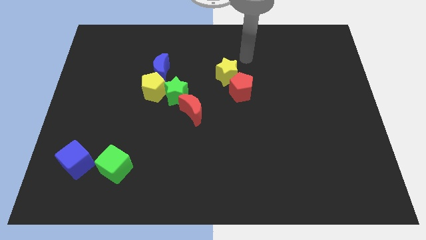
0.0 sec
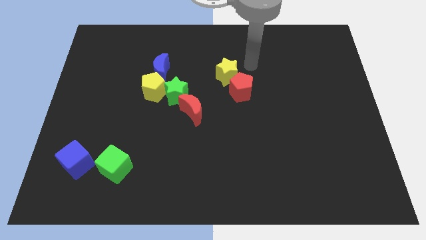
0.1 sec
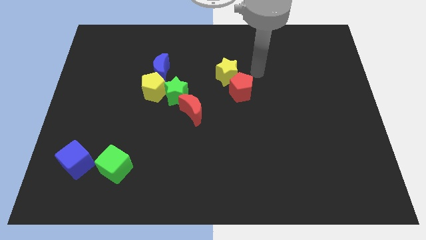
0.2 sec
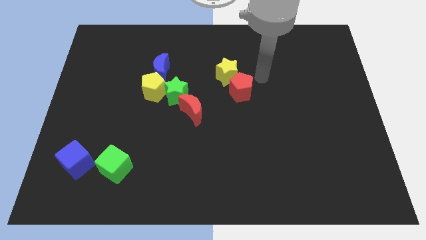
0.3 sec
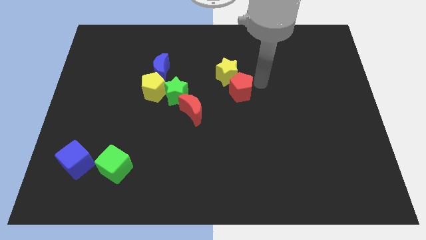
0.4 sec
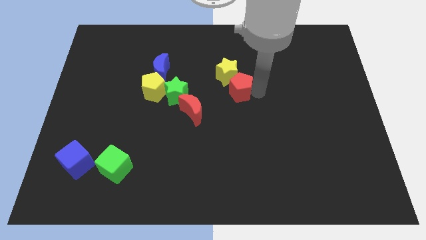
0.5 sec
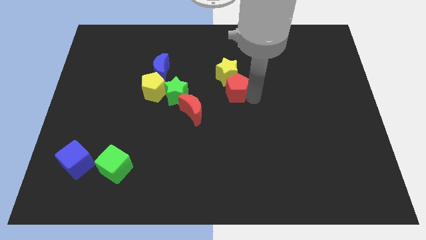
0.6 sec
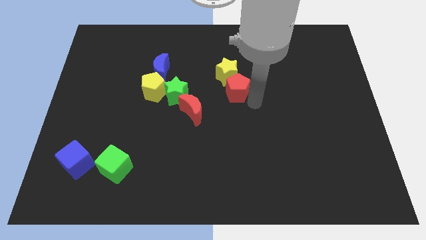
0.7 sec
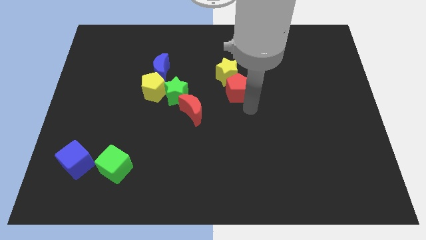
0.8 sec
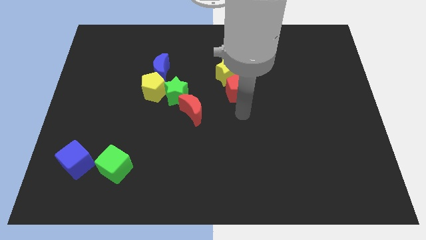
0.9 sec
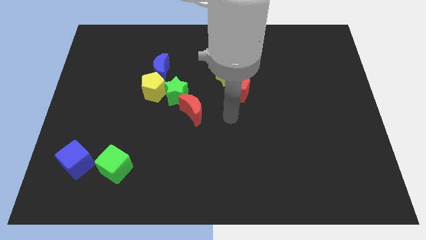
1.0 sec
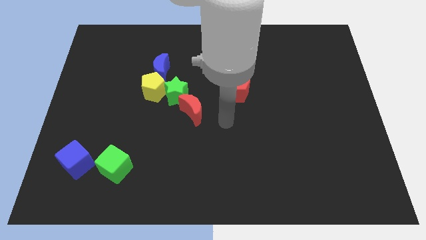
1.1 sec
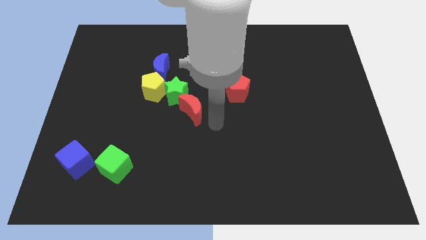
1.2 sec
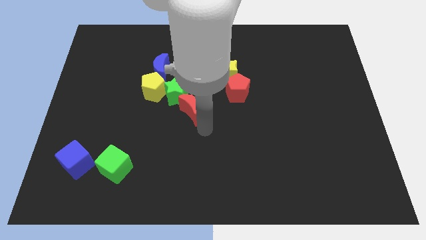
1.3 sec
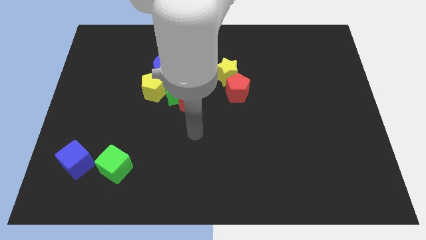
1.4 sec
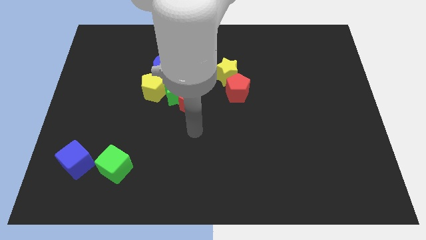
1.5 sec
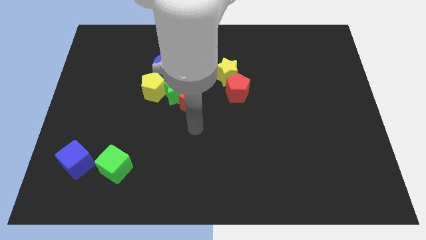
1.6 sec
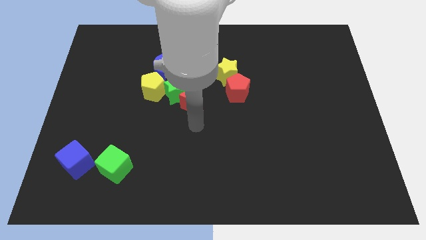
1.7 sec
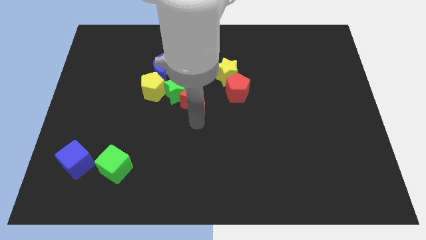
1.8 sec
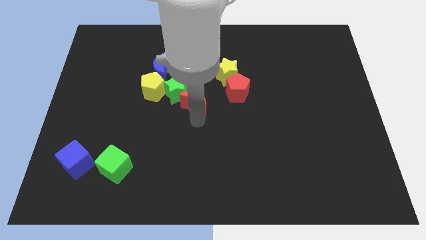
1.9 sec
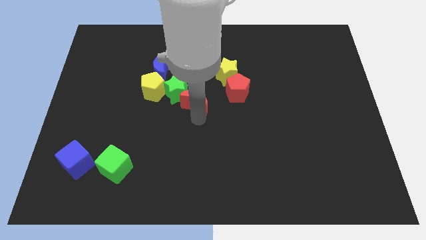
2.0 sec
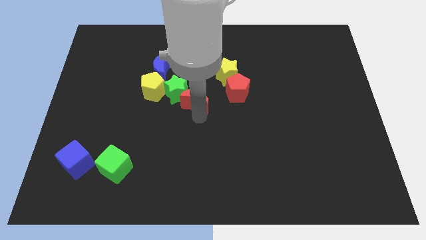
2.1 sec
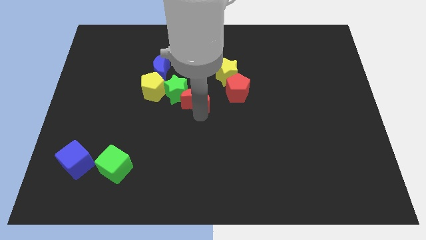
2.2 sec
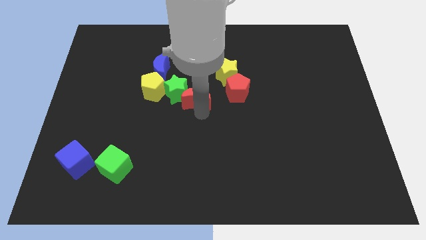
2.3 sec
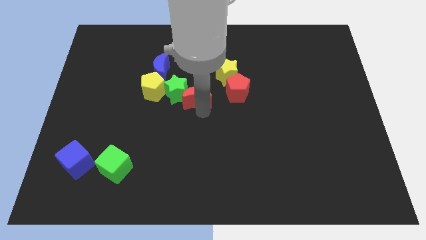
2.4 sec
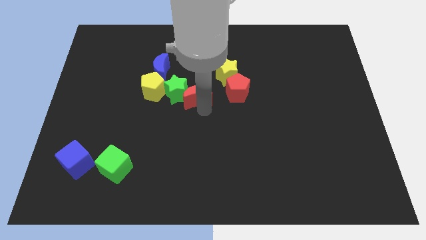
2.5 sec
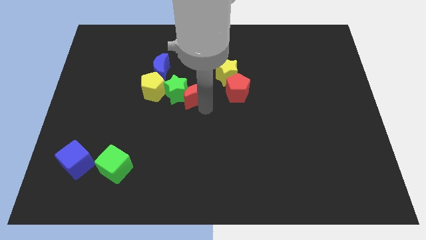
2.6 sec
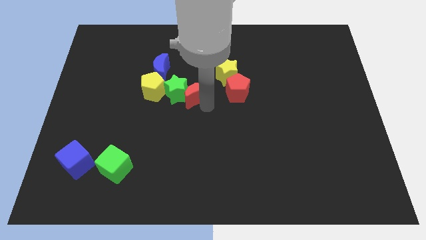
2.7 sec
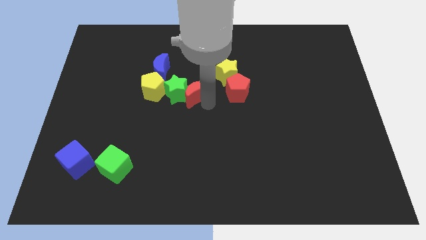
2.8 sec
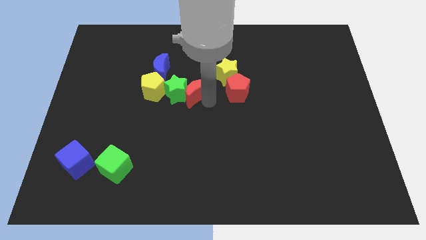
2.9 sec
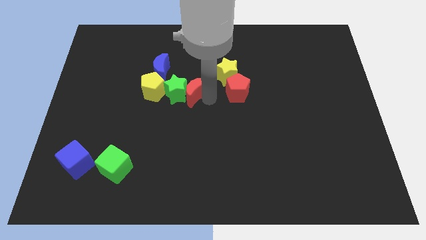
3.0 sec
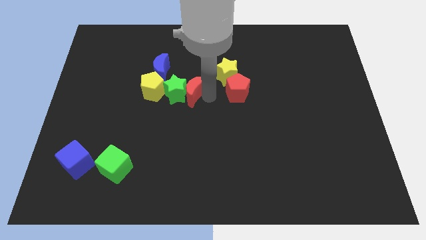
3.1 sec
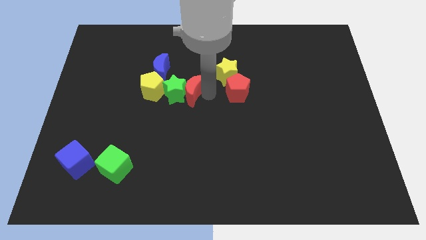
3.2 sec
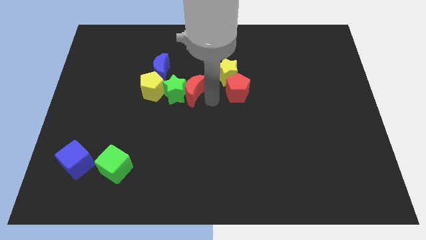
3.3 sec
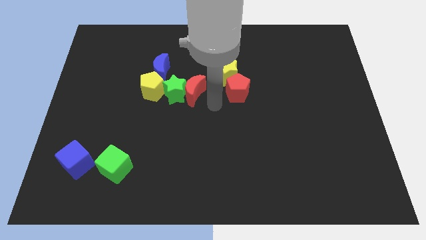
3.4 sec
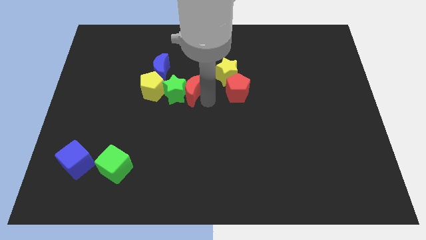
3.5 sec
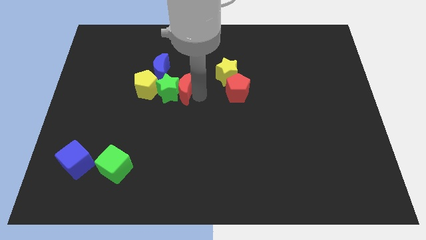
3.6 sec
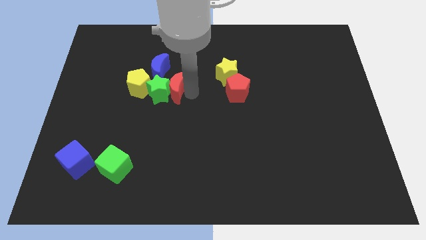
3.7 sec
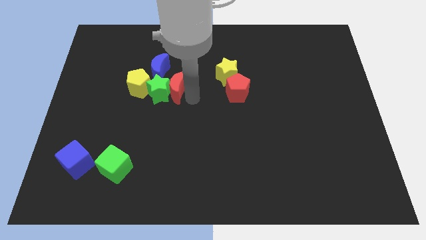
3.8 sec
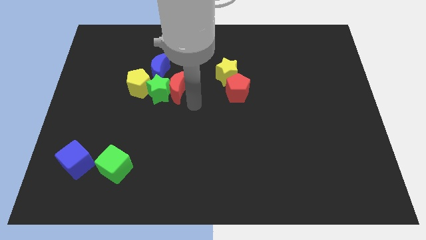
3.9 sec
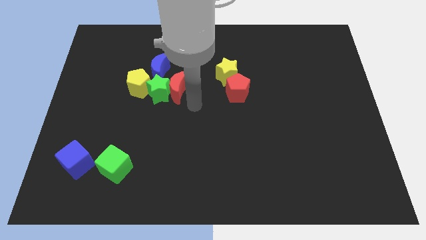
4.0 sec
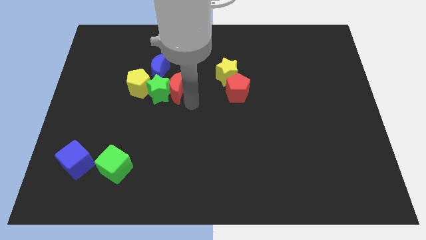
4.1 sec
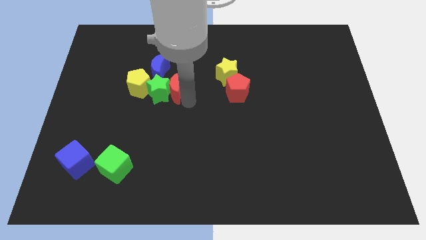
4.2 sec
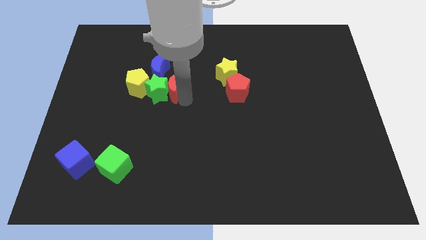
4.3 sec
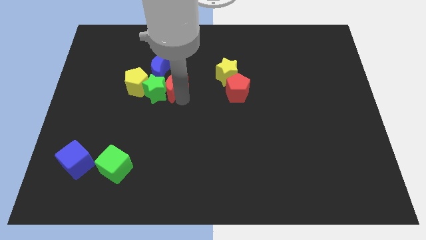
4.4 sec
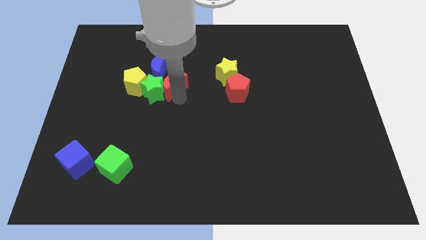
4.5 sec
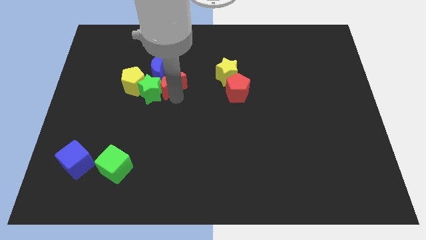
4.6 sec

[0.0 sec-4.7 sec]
put the red moon close to the blue moon

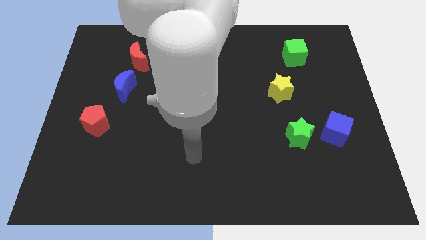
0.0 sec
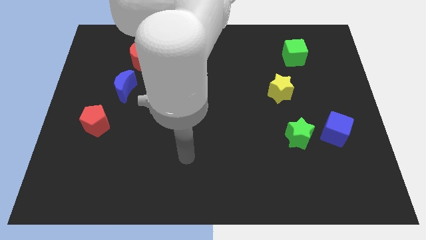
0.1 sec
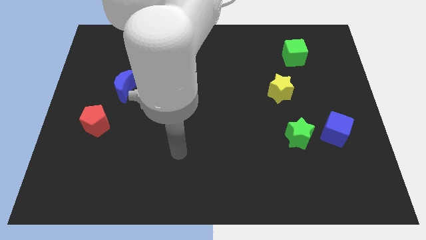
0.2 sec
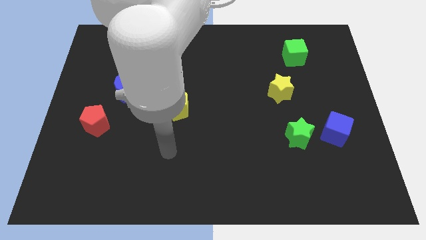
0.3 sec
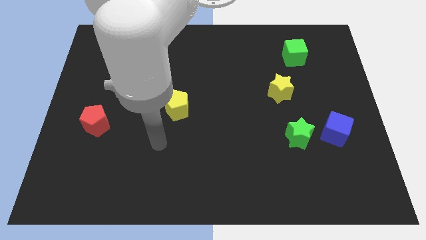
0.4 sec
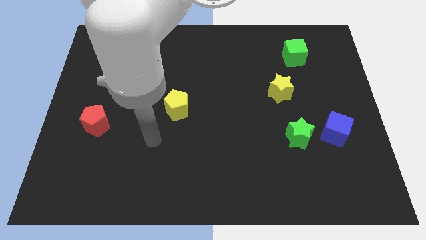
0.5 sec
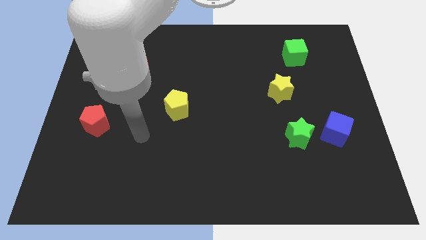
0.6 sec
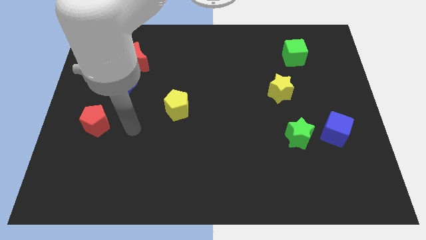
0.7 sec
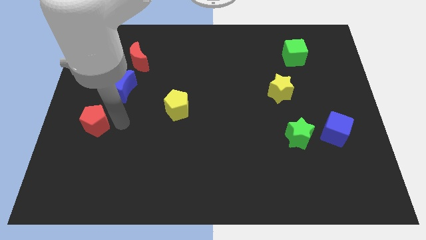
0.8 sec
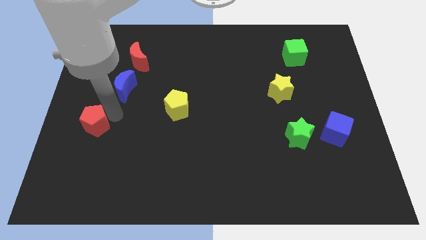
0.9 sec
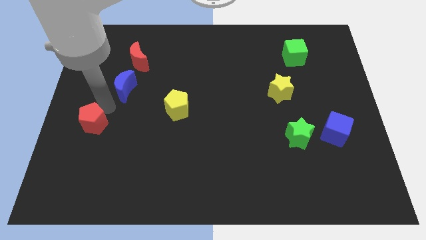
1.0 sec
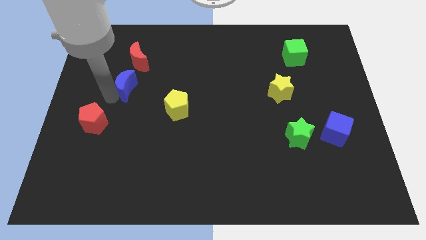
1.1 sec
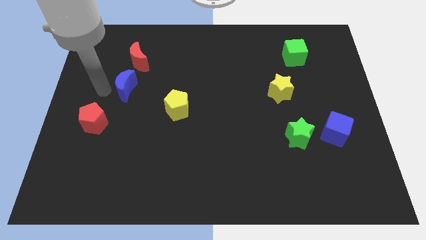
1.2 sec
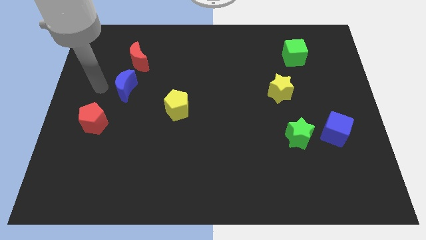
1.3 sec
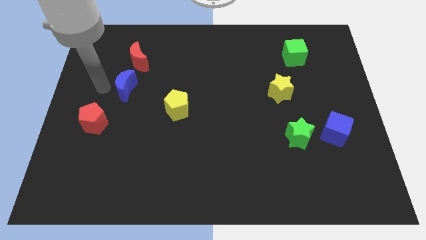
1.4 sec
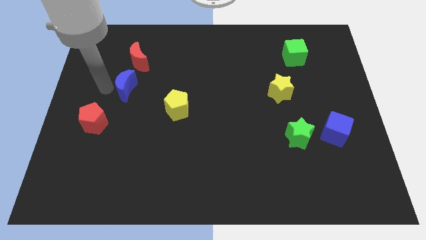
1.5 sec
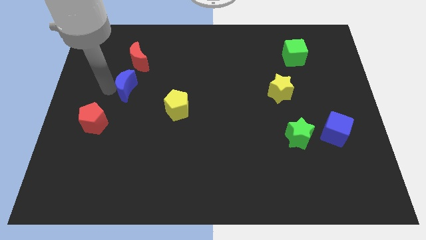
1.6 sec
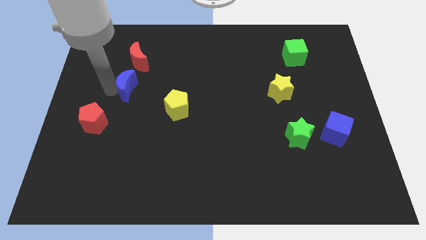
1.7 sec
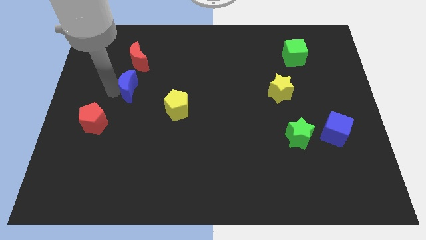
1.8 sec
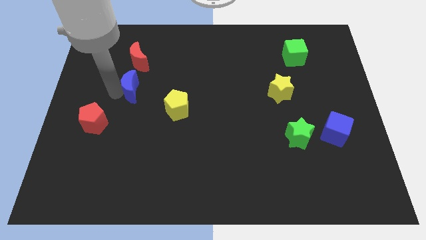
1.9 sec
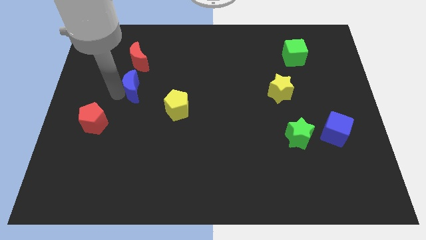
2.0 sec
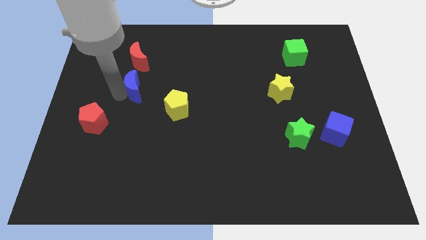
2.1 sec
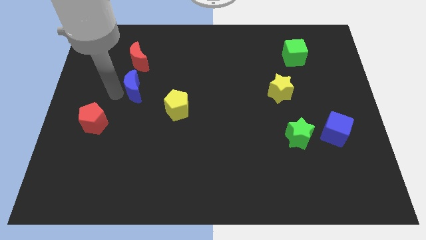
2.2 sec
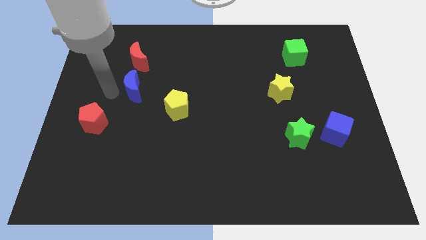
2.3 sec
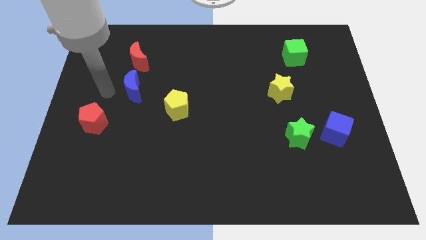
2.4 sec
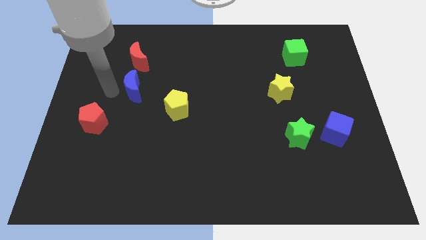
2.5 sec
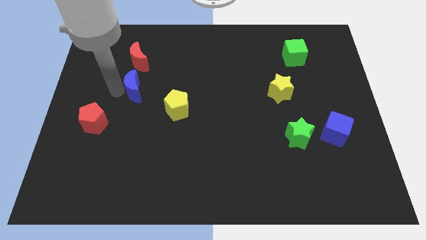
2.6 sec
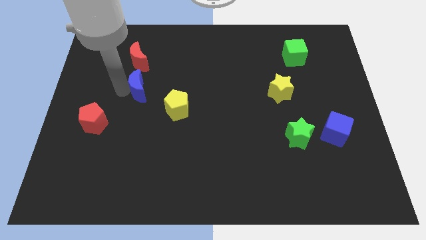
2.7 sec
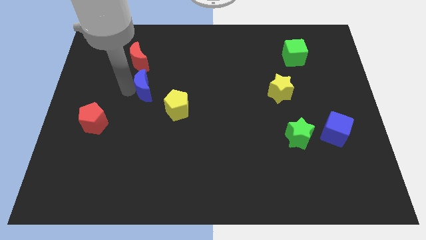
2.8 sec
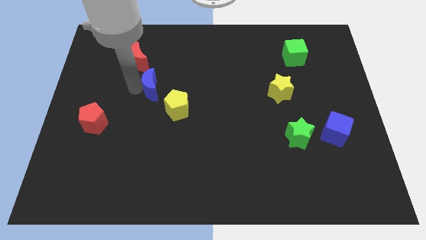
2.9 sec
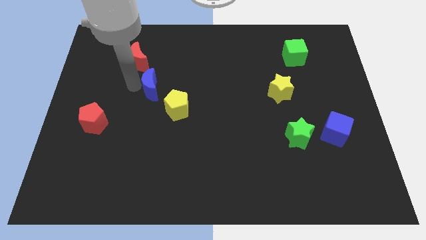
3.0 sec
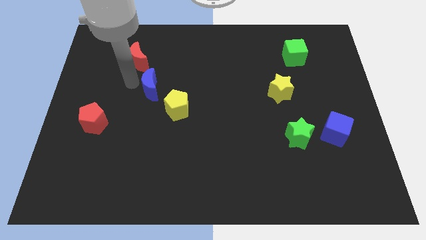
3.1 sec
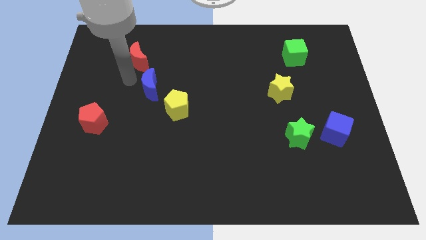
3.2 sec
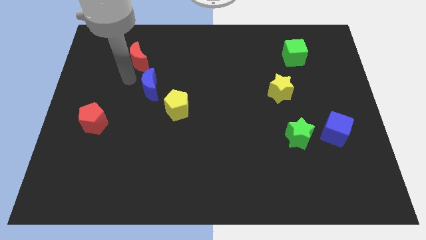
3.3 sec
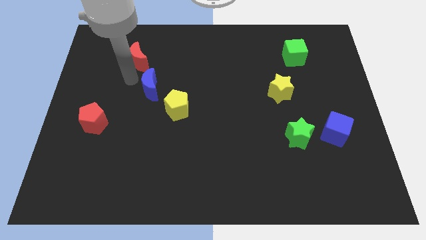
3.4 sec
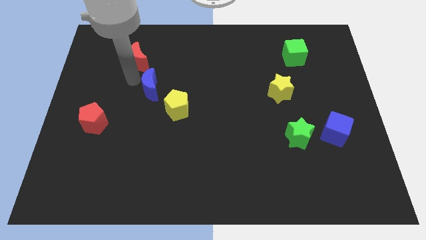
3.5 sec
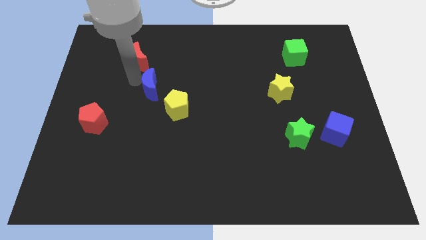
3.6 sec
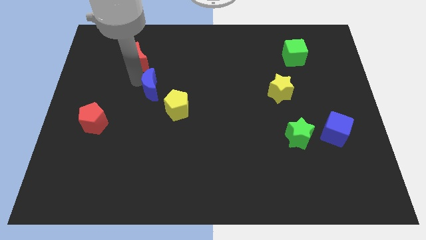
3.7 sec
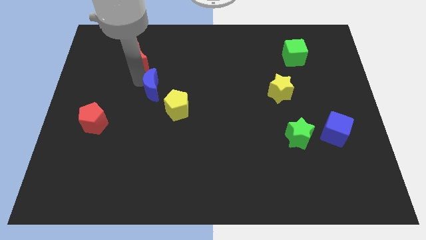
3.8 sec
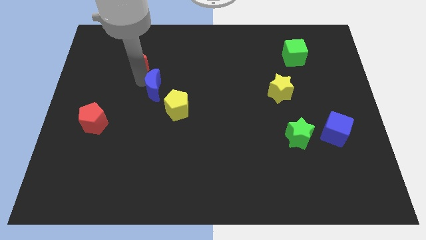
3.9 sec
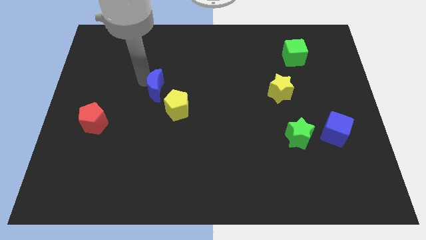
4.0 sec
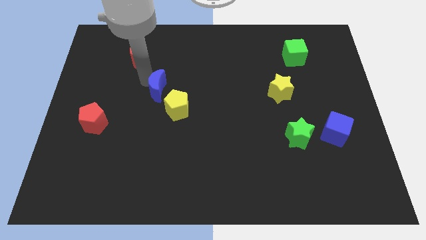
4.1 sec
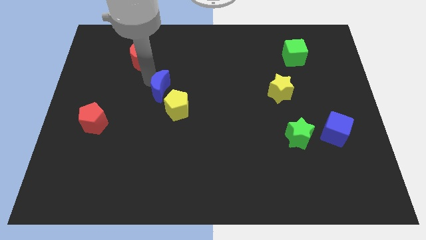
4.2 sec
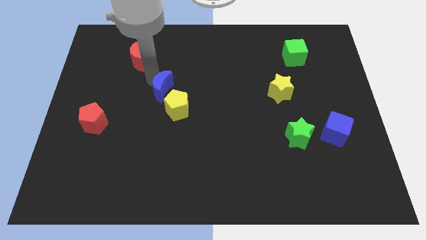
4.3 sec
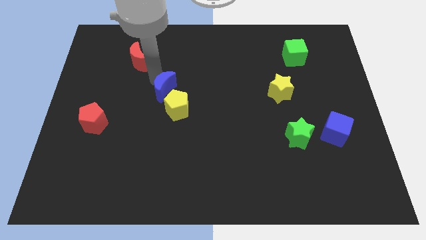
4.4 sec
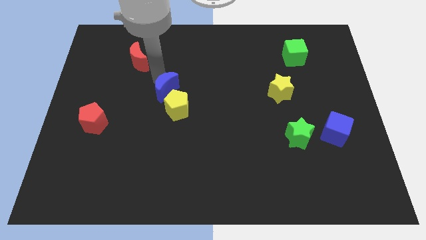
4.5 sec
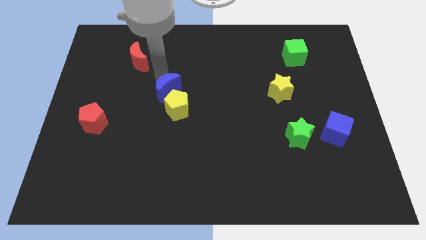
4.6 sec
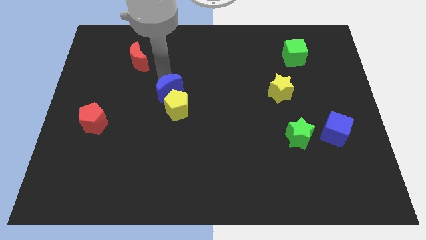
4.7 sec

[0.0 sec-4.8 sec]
put the blue moon close to the yellow pentagon
